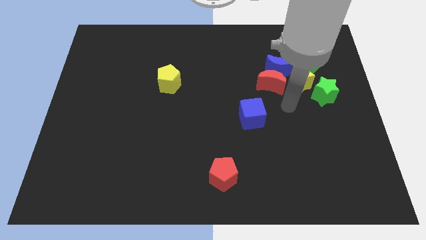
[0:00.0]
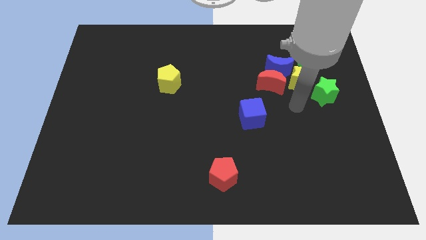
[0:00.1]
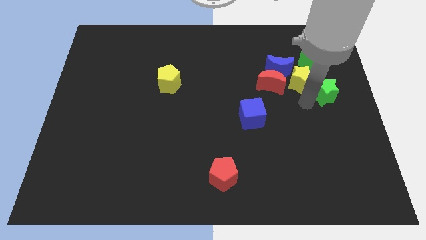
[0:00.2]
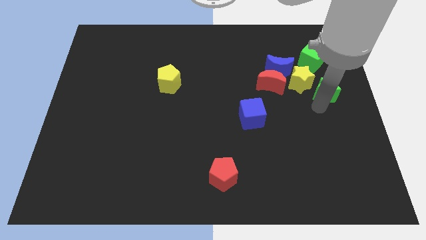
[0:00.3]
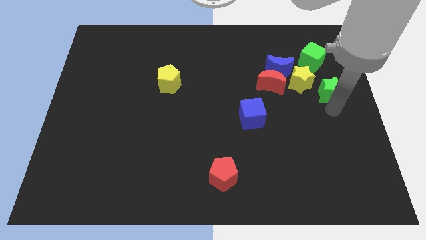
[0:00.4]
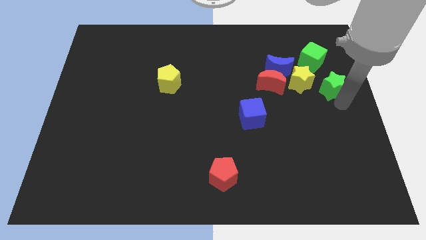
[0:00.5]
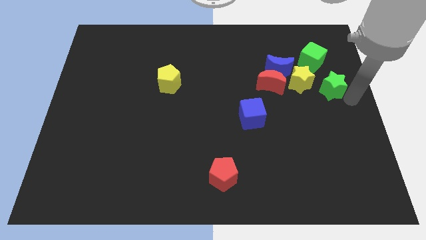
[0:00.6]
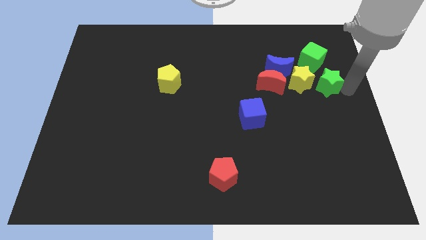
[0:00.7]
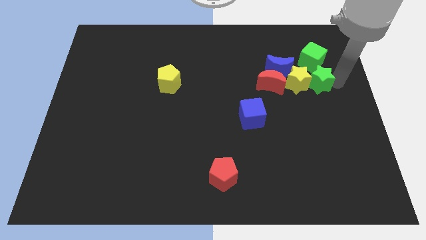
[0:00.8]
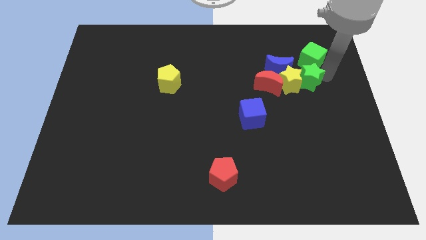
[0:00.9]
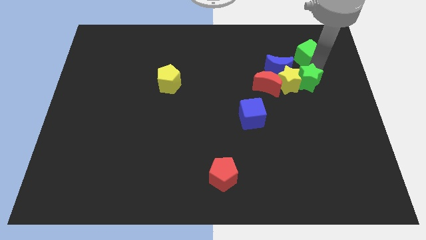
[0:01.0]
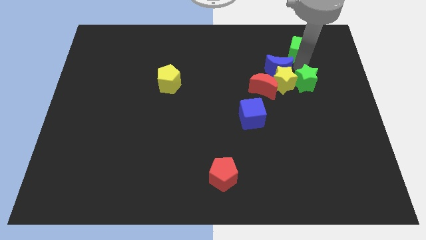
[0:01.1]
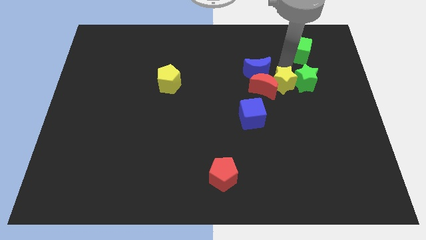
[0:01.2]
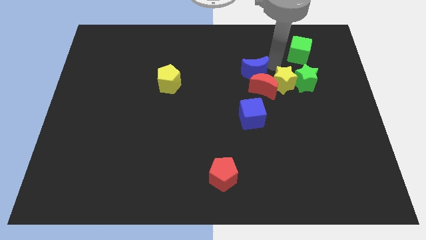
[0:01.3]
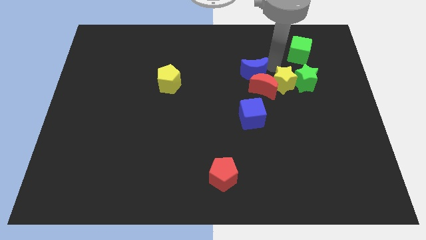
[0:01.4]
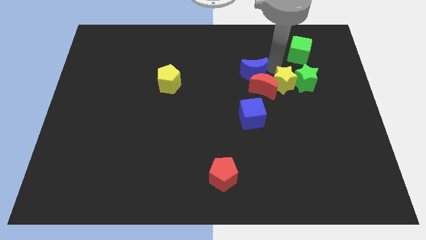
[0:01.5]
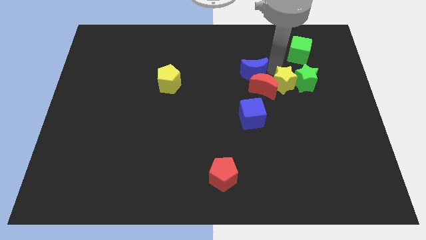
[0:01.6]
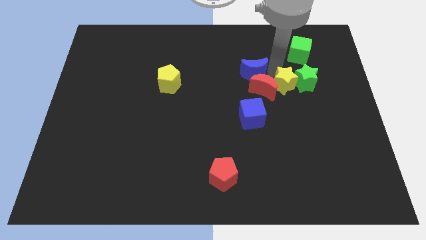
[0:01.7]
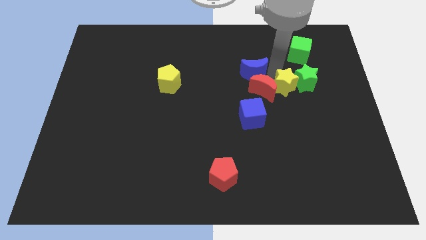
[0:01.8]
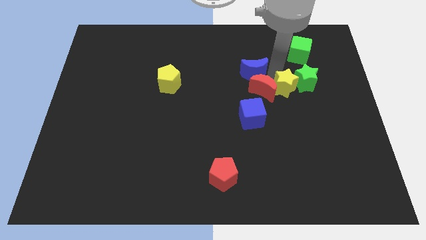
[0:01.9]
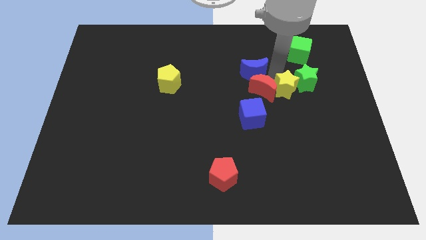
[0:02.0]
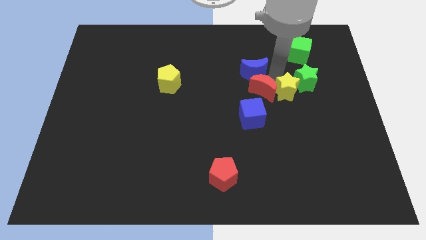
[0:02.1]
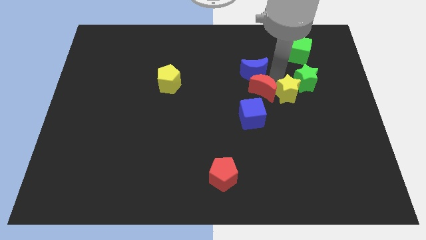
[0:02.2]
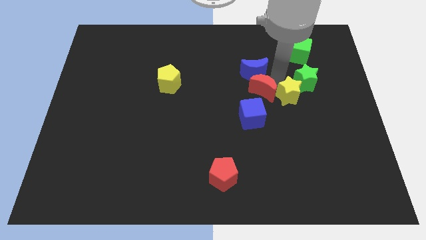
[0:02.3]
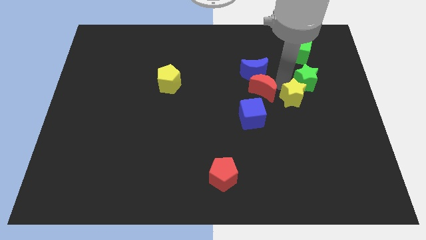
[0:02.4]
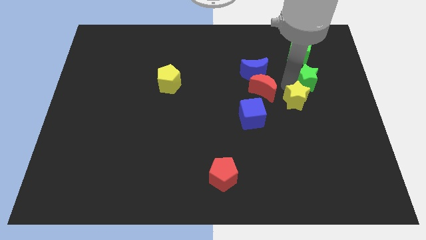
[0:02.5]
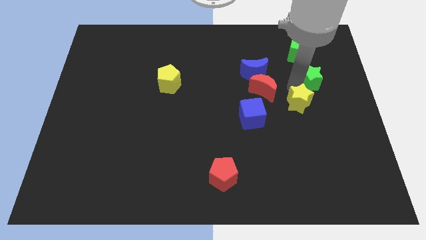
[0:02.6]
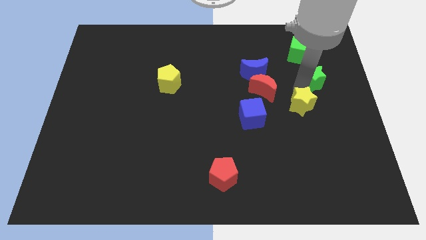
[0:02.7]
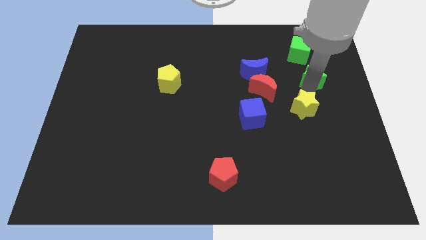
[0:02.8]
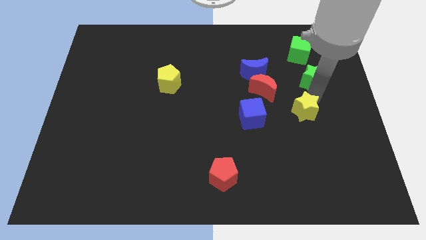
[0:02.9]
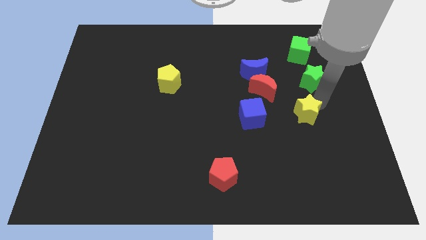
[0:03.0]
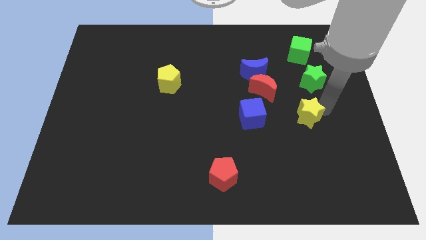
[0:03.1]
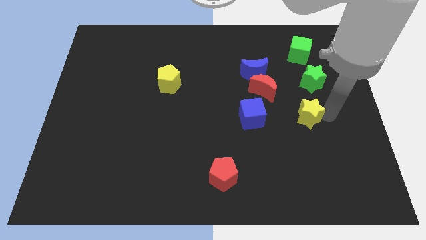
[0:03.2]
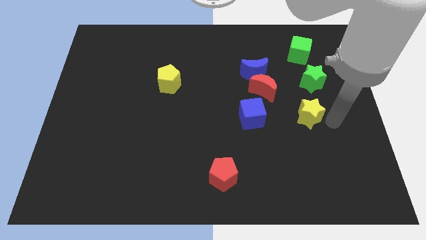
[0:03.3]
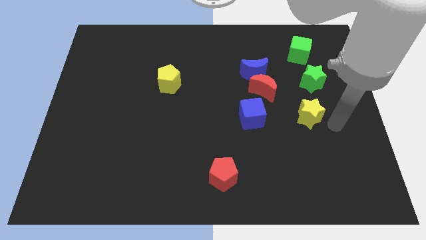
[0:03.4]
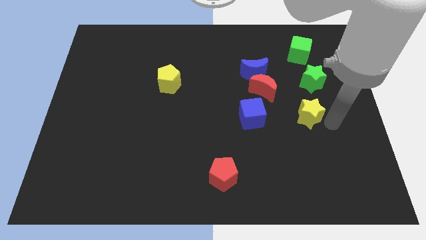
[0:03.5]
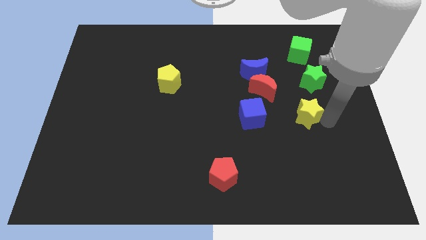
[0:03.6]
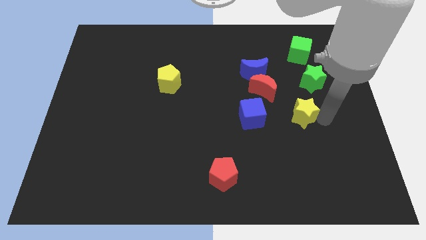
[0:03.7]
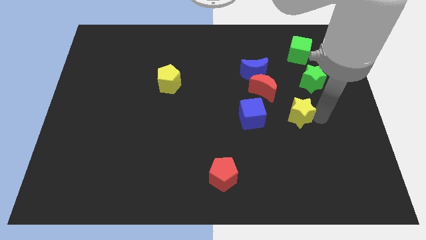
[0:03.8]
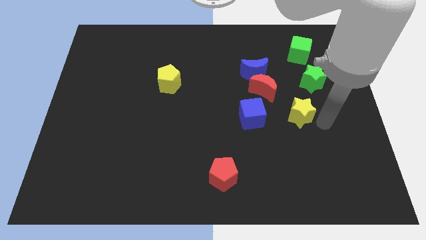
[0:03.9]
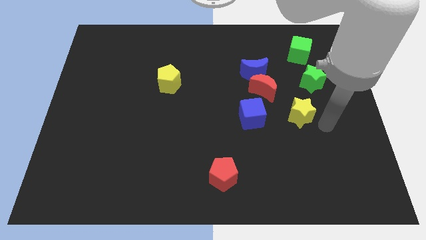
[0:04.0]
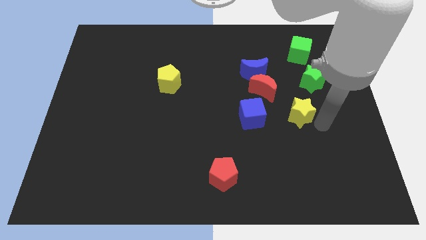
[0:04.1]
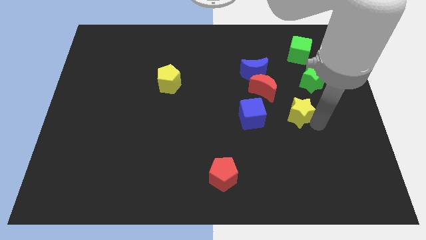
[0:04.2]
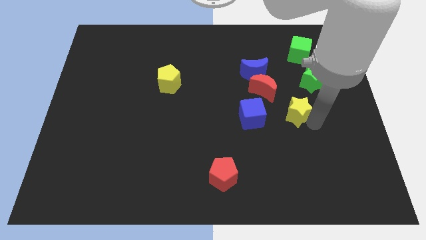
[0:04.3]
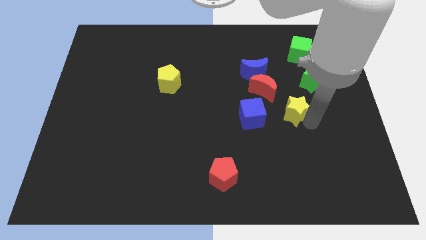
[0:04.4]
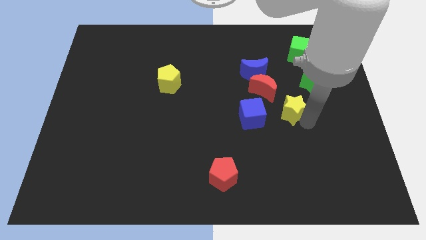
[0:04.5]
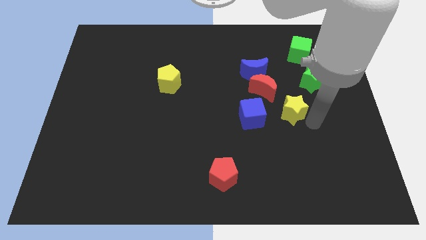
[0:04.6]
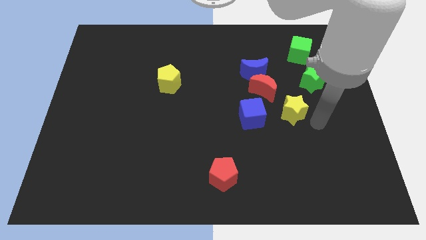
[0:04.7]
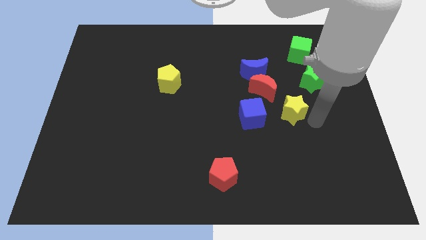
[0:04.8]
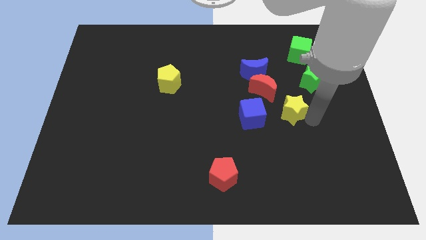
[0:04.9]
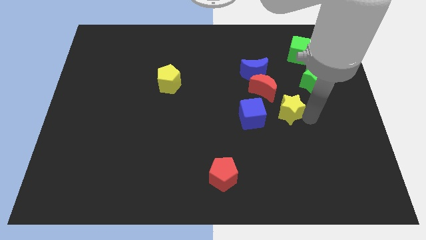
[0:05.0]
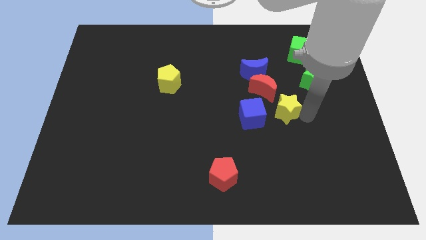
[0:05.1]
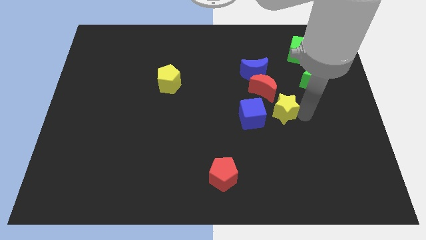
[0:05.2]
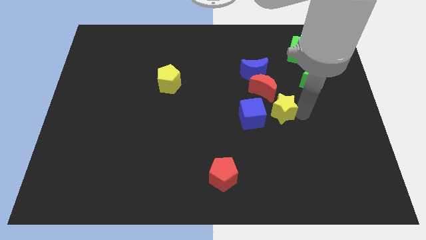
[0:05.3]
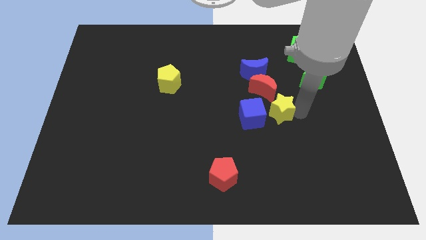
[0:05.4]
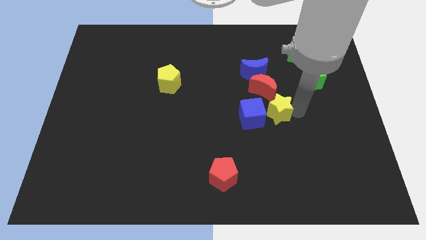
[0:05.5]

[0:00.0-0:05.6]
move the yellow star to the blue cube

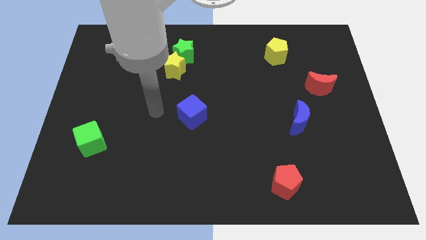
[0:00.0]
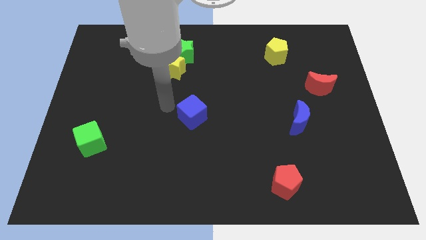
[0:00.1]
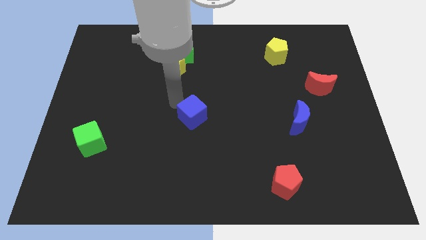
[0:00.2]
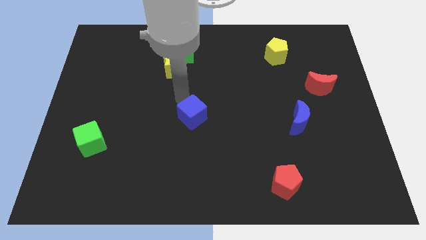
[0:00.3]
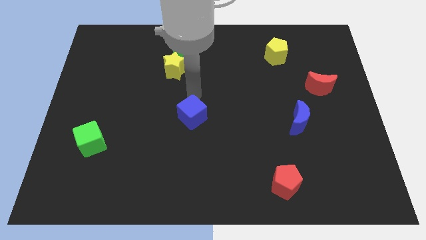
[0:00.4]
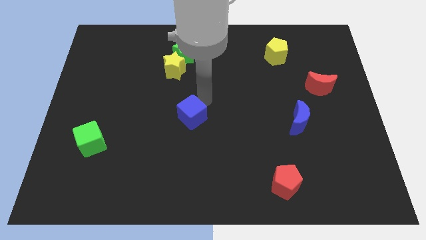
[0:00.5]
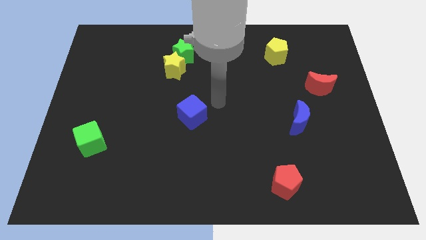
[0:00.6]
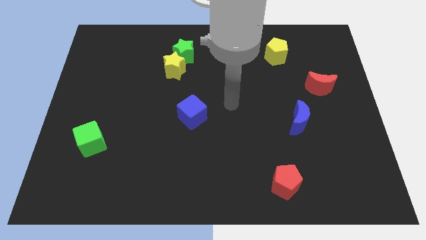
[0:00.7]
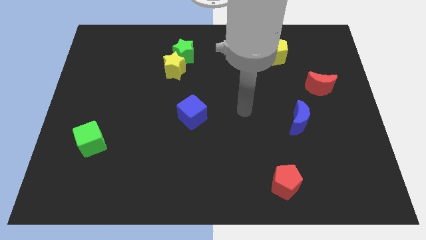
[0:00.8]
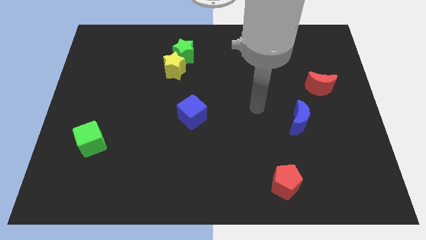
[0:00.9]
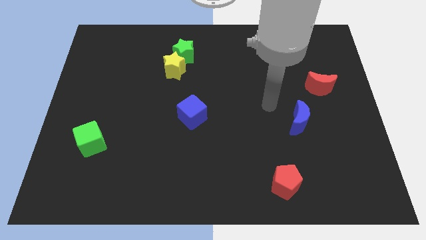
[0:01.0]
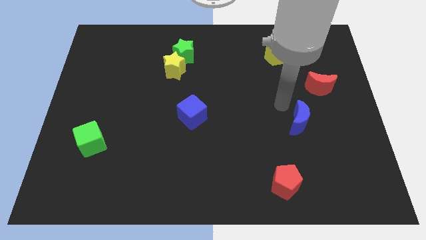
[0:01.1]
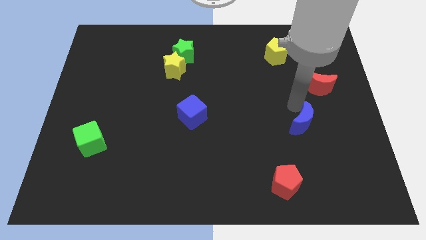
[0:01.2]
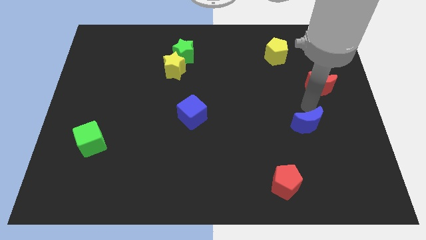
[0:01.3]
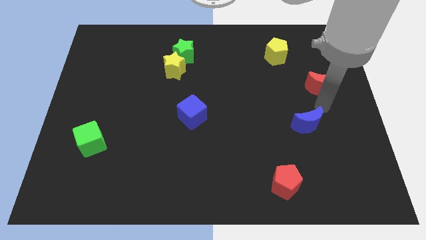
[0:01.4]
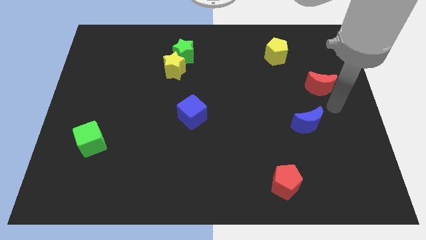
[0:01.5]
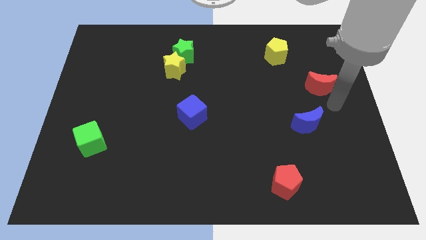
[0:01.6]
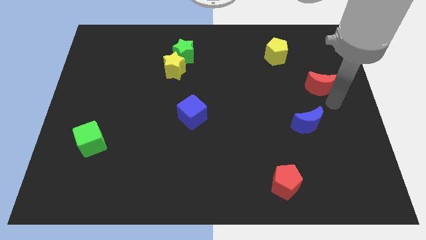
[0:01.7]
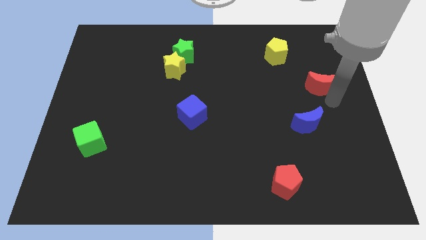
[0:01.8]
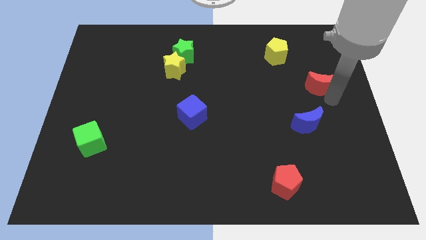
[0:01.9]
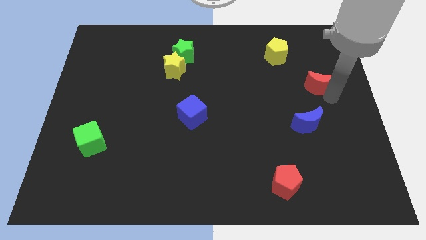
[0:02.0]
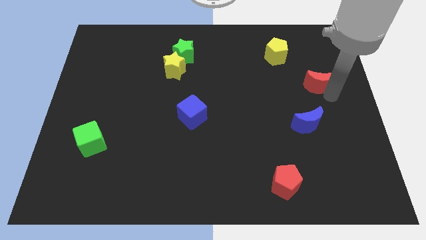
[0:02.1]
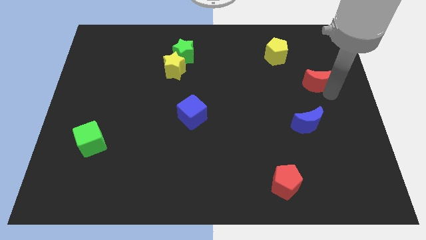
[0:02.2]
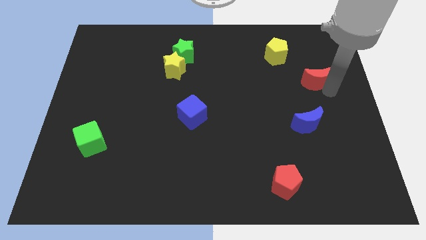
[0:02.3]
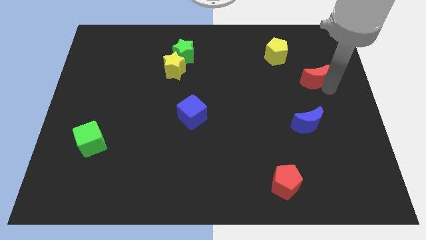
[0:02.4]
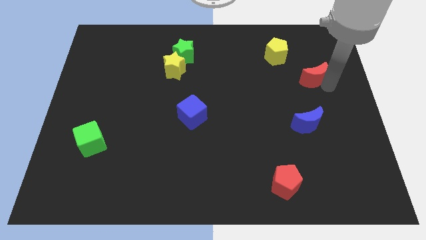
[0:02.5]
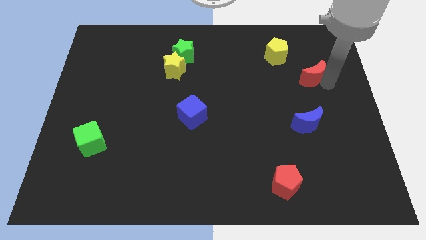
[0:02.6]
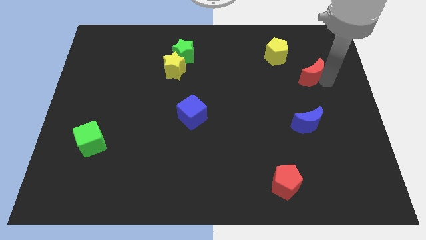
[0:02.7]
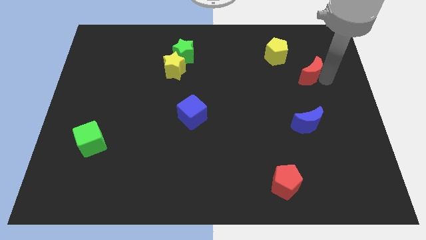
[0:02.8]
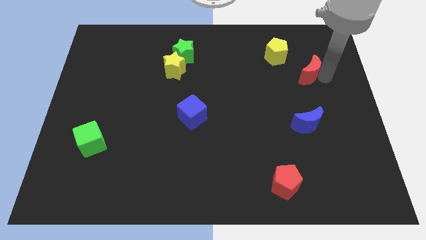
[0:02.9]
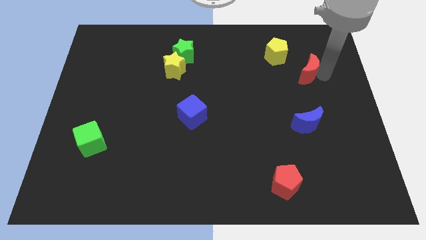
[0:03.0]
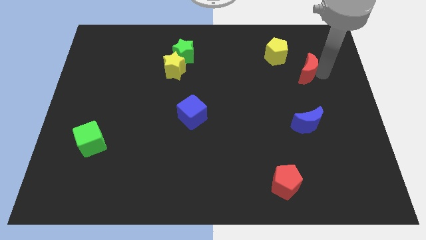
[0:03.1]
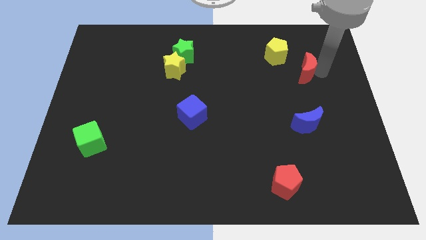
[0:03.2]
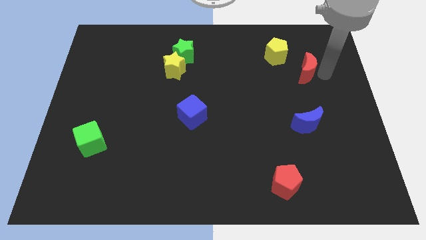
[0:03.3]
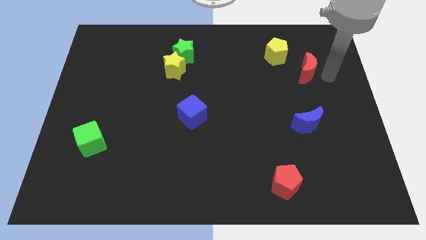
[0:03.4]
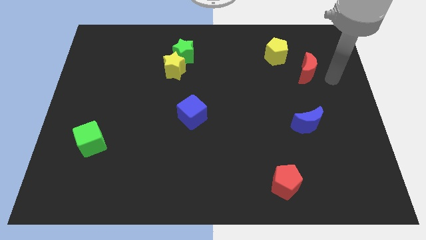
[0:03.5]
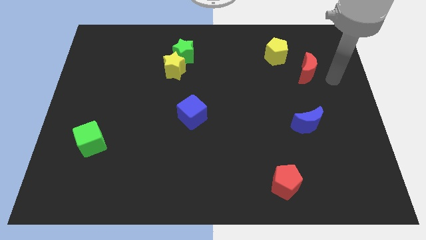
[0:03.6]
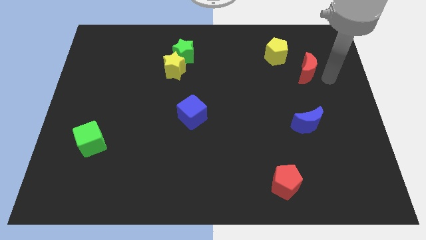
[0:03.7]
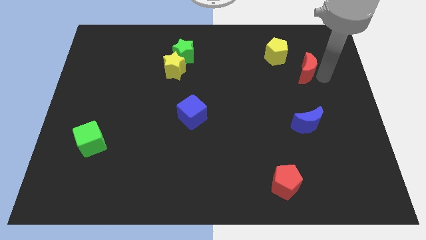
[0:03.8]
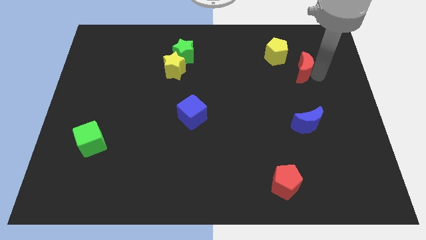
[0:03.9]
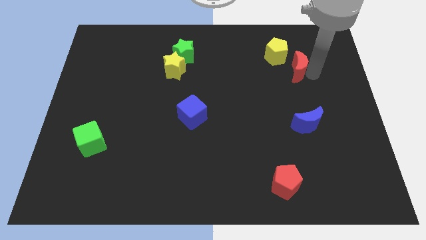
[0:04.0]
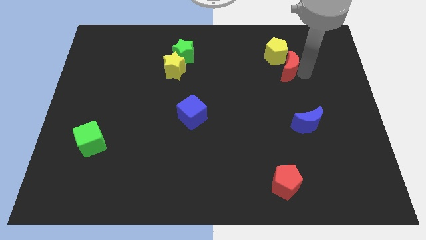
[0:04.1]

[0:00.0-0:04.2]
slide the red moon close to the yellow pentagon
